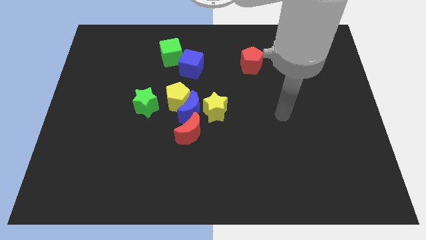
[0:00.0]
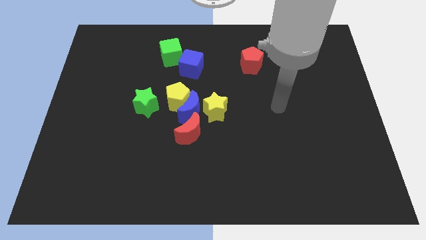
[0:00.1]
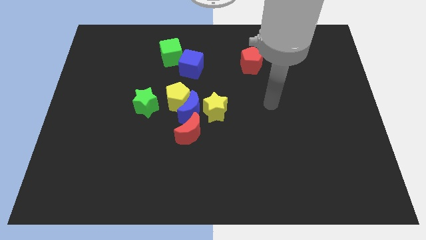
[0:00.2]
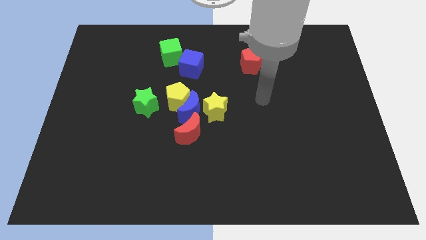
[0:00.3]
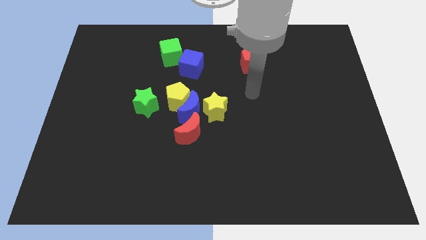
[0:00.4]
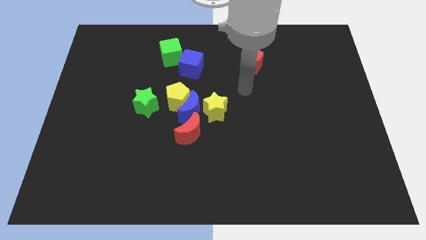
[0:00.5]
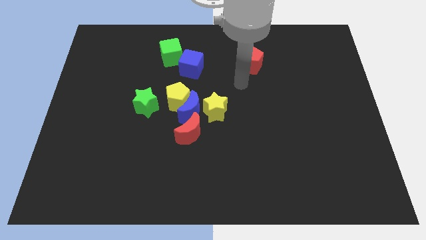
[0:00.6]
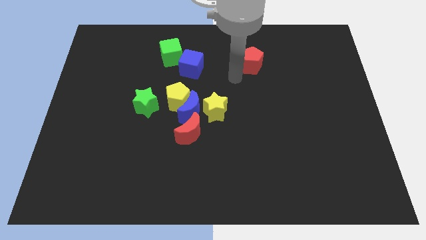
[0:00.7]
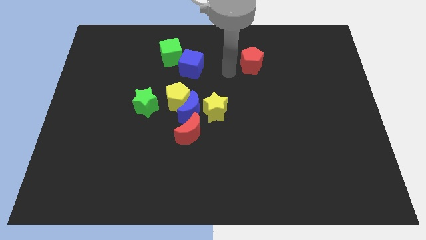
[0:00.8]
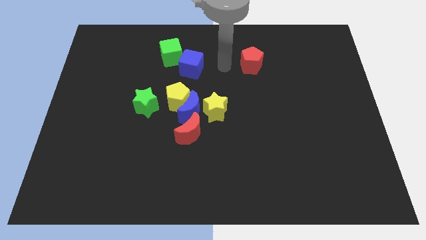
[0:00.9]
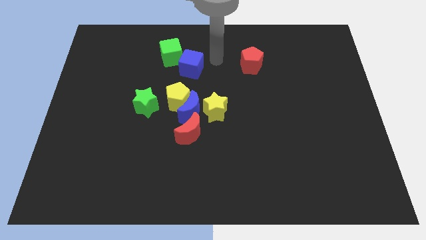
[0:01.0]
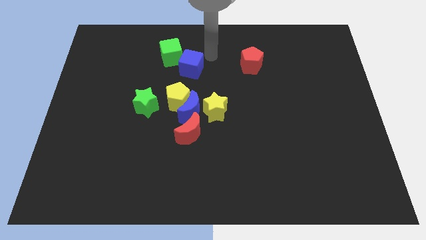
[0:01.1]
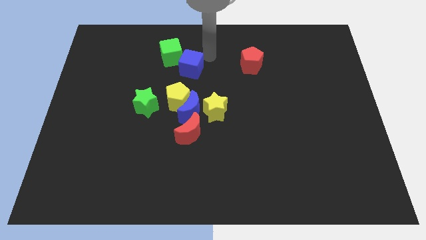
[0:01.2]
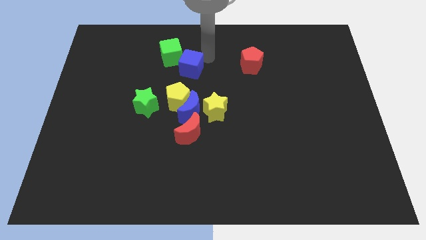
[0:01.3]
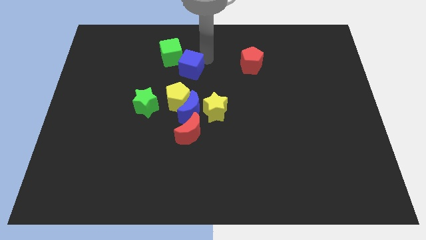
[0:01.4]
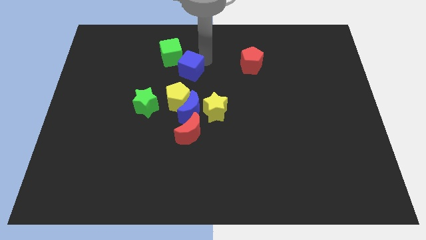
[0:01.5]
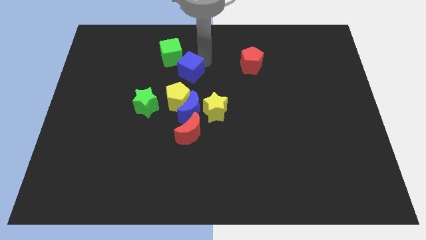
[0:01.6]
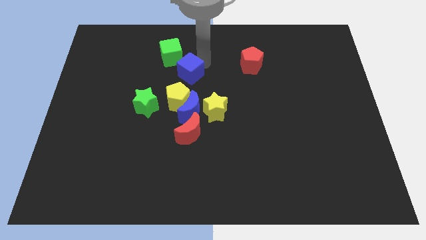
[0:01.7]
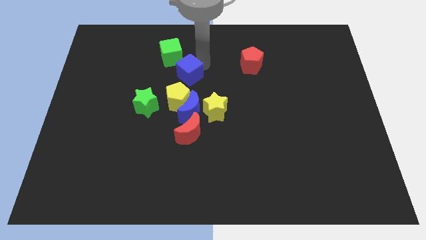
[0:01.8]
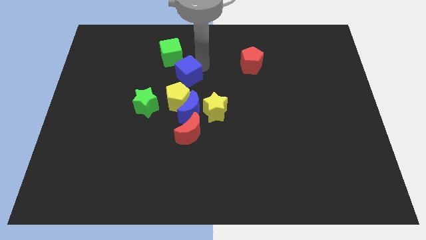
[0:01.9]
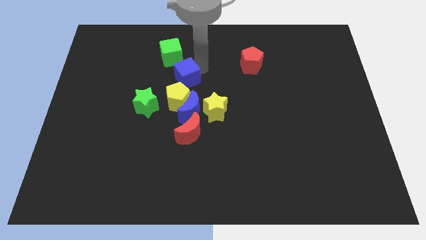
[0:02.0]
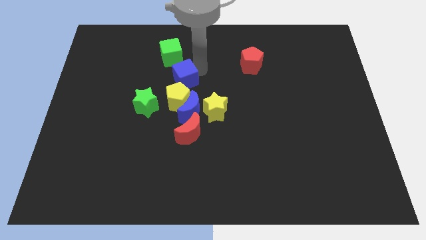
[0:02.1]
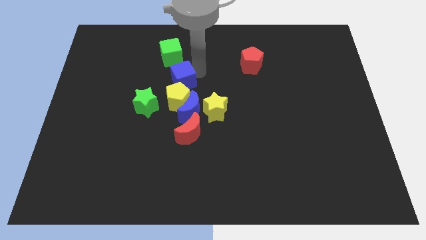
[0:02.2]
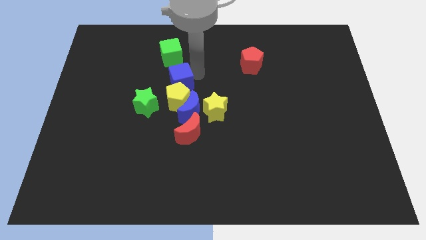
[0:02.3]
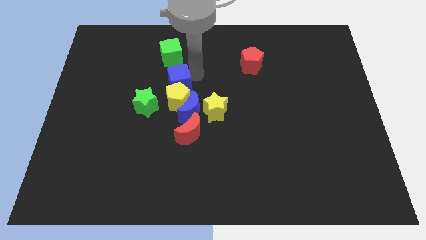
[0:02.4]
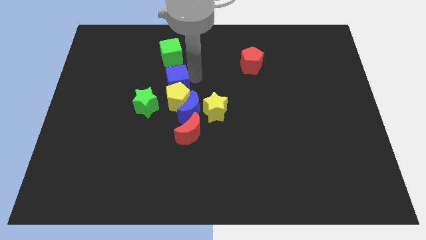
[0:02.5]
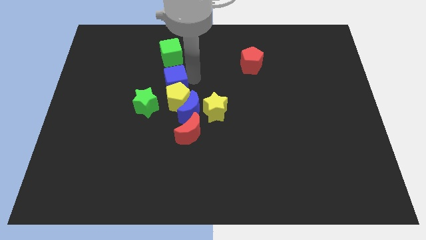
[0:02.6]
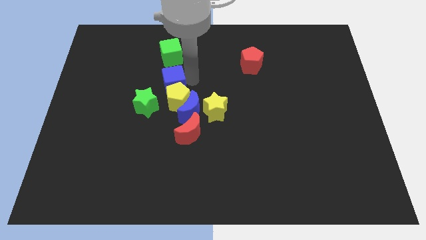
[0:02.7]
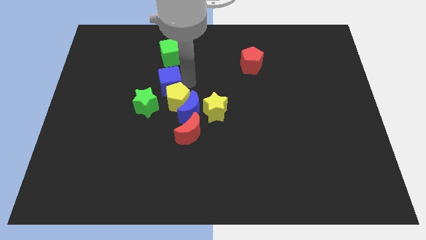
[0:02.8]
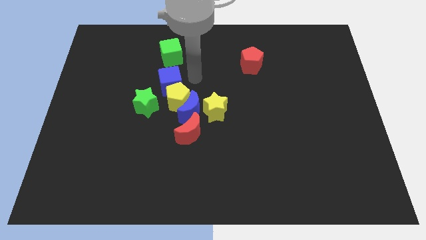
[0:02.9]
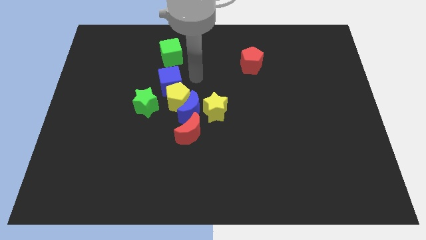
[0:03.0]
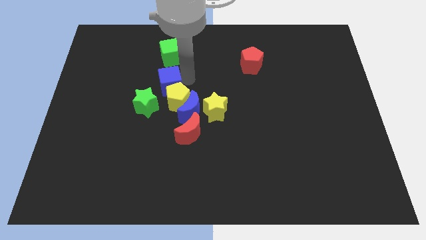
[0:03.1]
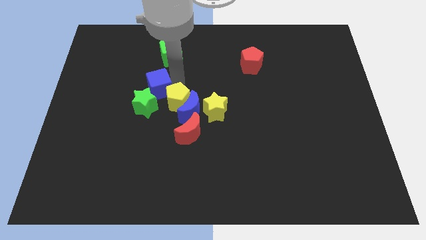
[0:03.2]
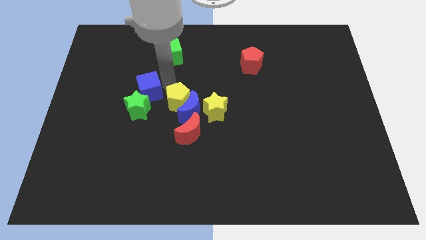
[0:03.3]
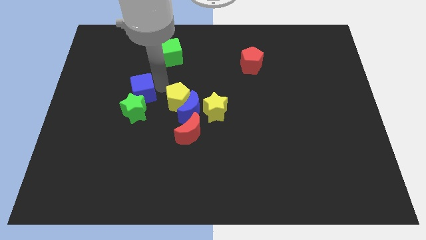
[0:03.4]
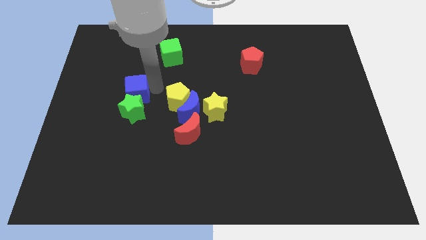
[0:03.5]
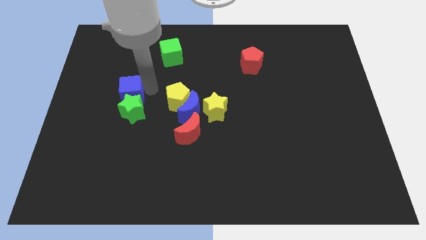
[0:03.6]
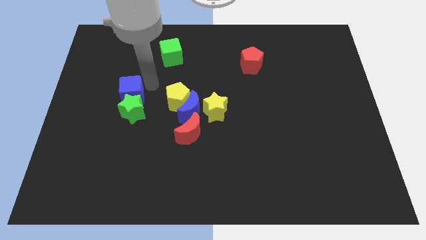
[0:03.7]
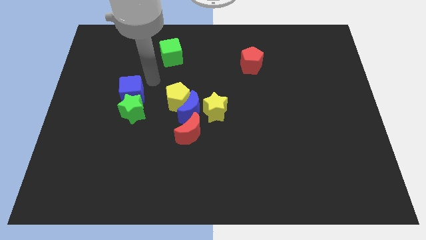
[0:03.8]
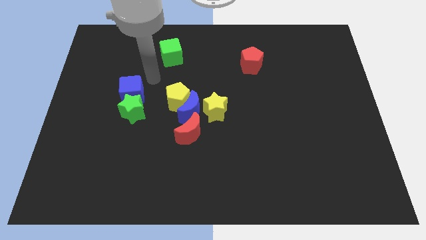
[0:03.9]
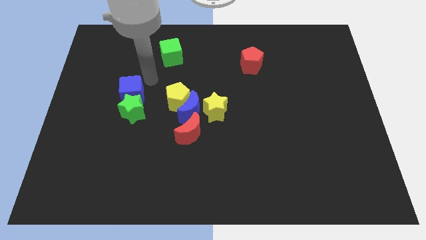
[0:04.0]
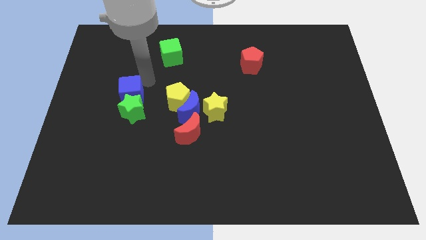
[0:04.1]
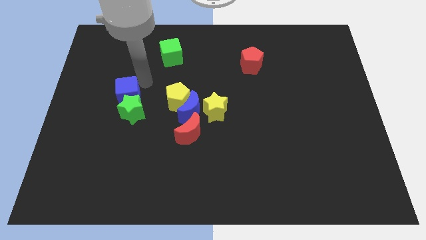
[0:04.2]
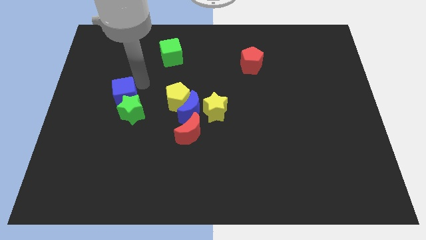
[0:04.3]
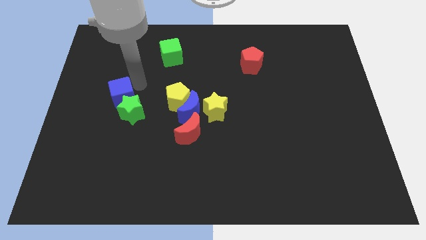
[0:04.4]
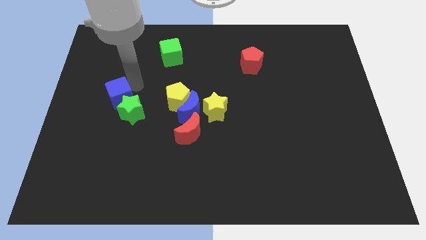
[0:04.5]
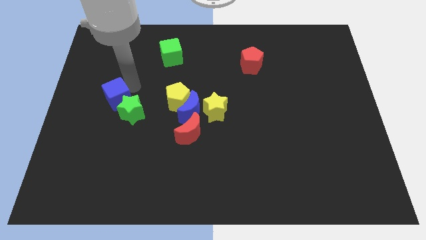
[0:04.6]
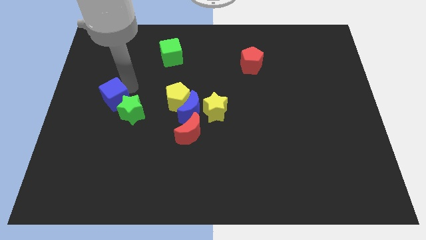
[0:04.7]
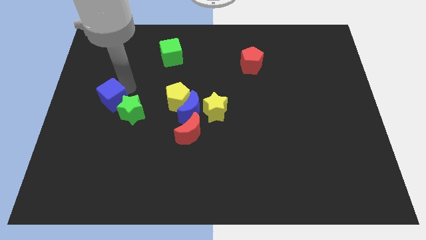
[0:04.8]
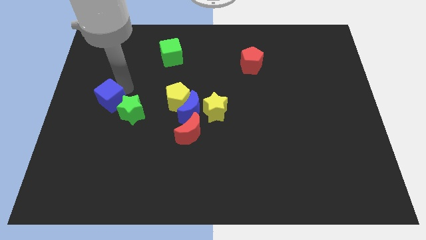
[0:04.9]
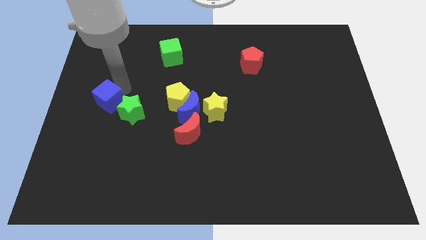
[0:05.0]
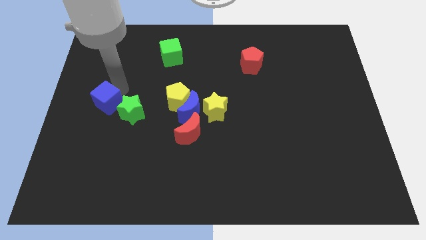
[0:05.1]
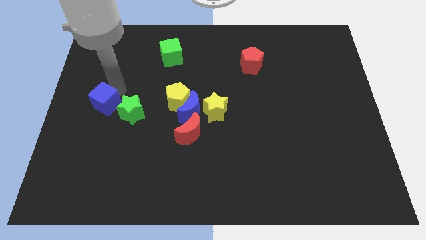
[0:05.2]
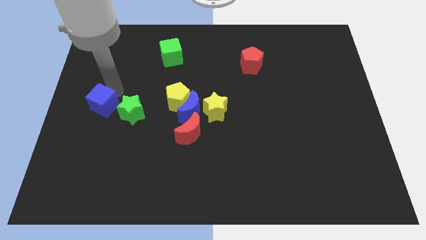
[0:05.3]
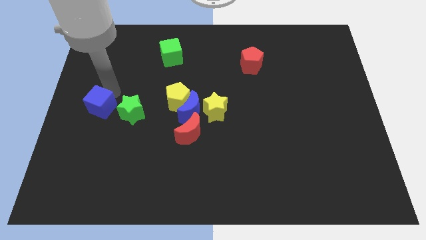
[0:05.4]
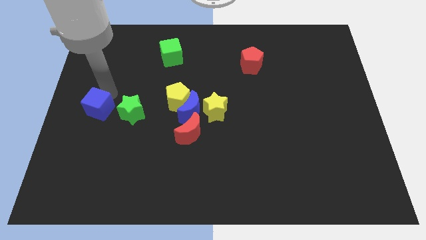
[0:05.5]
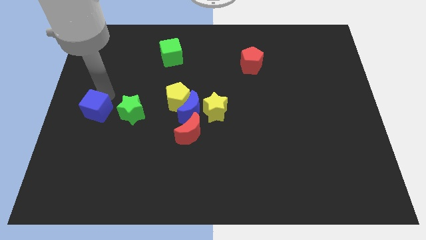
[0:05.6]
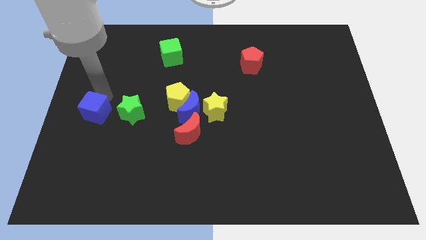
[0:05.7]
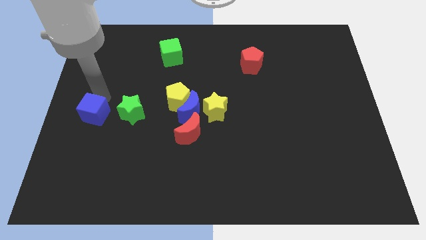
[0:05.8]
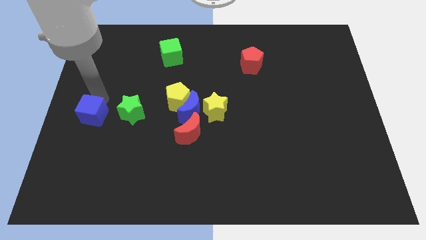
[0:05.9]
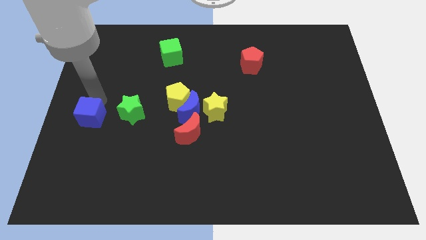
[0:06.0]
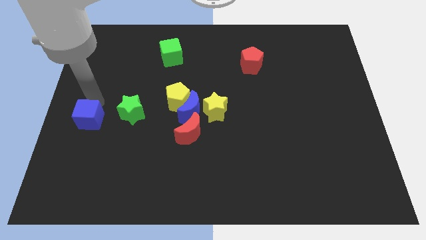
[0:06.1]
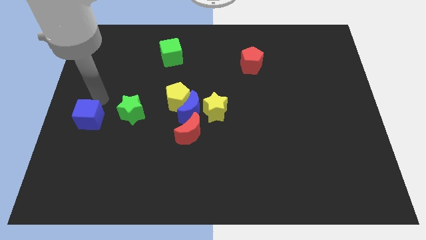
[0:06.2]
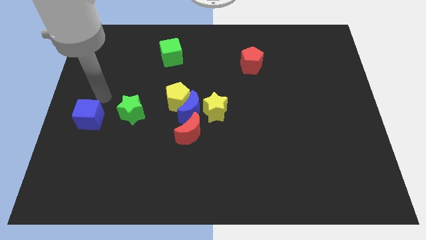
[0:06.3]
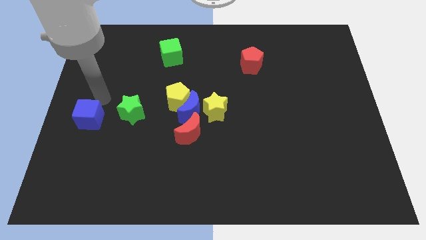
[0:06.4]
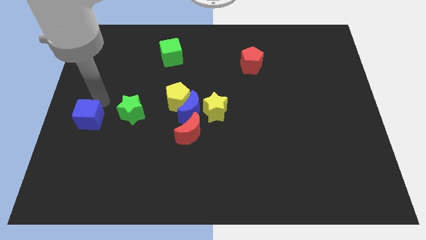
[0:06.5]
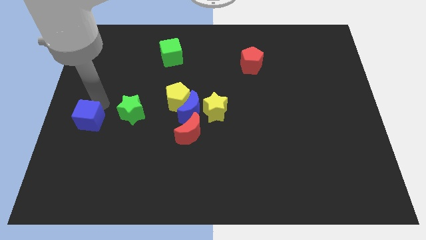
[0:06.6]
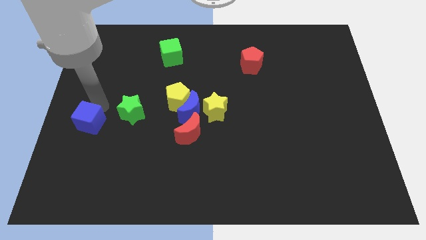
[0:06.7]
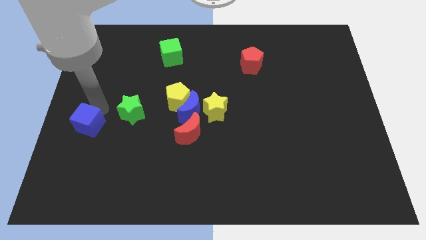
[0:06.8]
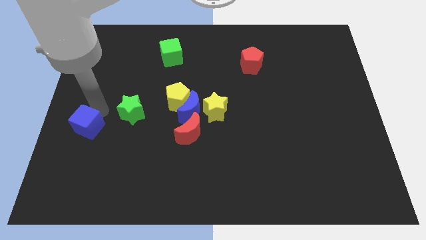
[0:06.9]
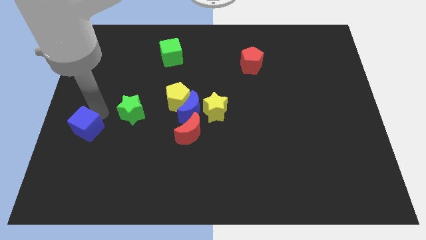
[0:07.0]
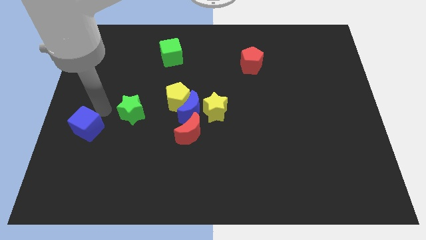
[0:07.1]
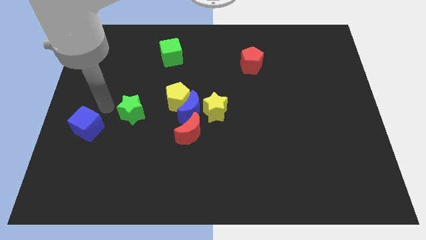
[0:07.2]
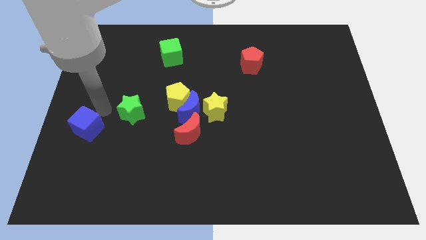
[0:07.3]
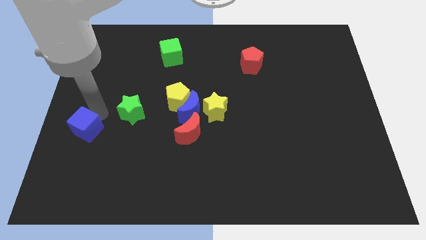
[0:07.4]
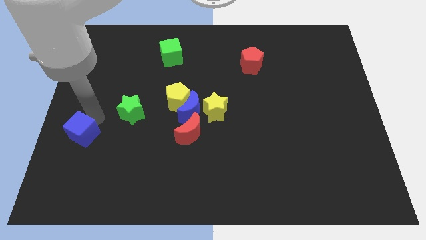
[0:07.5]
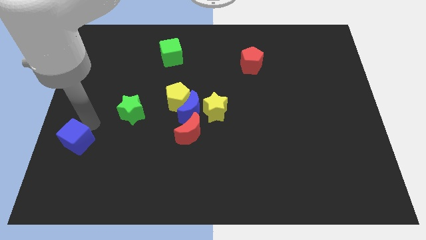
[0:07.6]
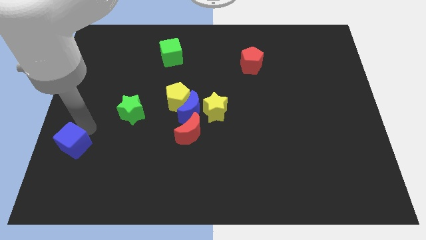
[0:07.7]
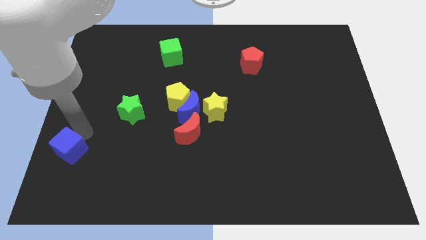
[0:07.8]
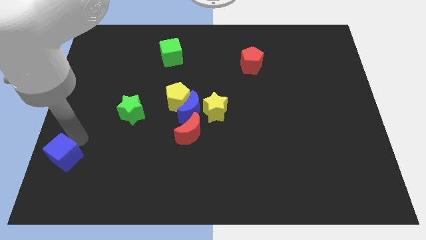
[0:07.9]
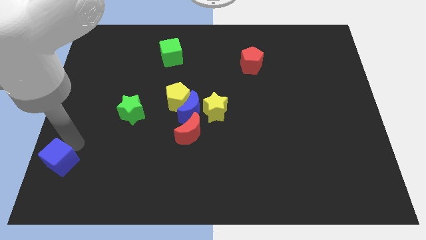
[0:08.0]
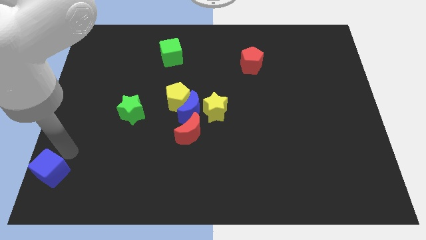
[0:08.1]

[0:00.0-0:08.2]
slide the blue cube to the bottom left of the board
